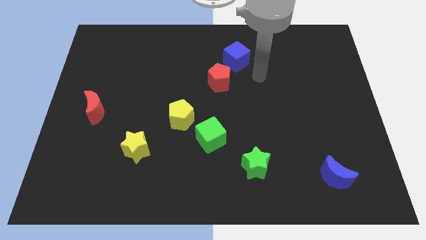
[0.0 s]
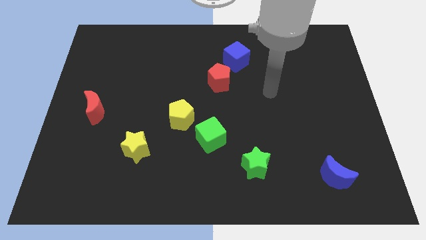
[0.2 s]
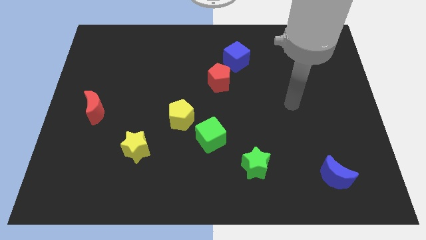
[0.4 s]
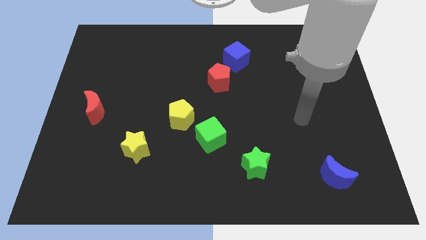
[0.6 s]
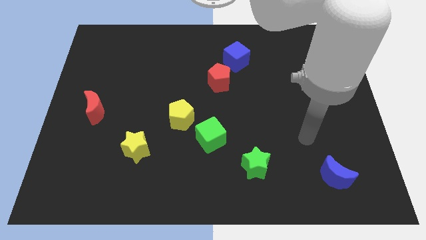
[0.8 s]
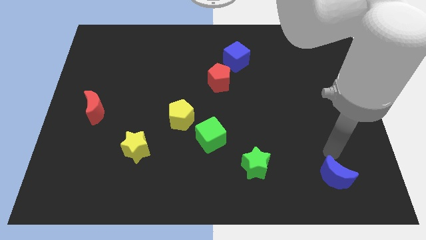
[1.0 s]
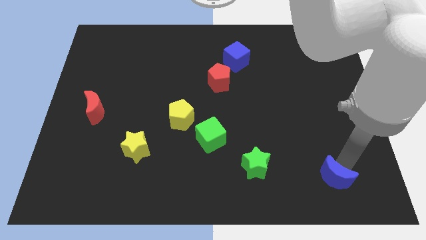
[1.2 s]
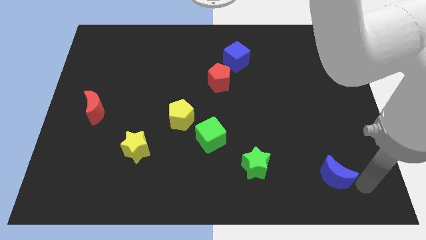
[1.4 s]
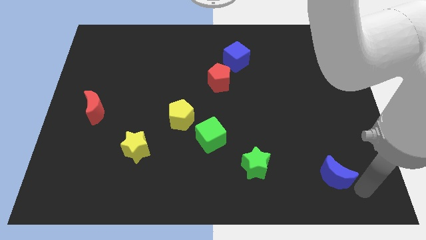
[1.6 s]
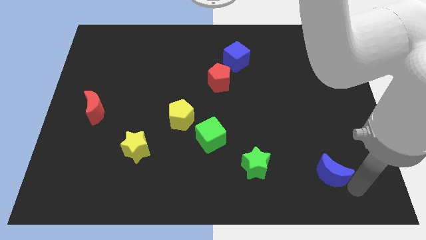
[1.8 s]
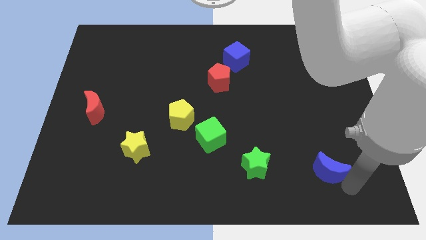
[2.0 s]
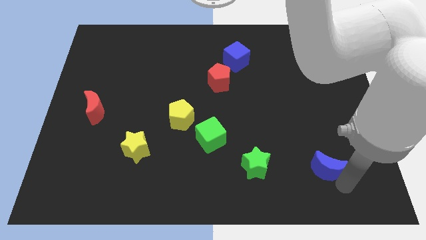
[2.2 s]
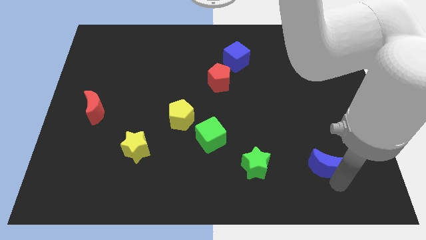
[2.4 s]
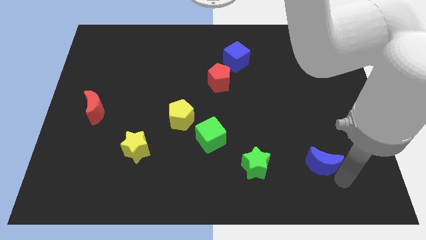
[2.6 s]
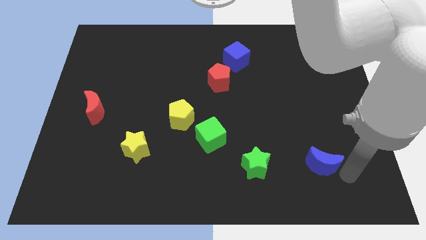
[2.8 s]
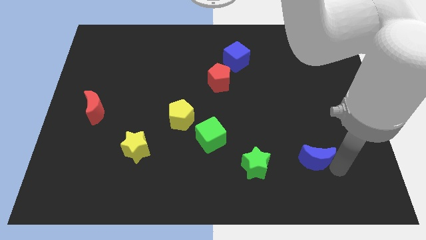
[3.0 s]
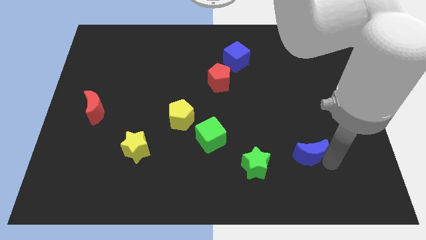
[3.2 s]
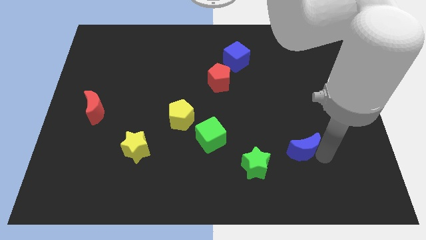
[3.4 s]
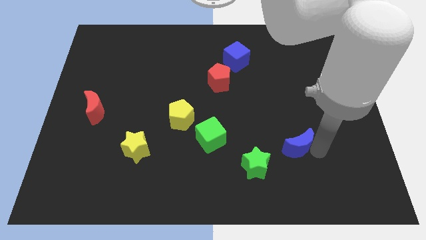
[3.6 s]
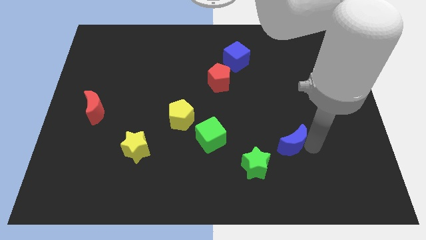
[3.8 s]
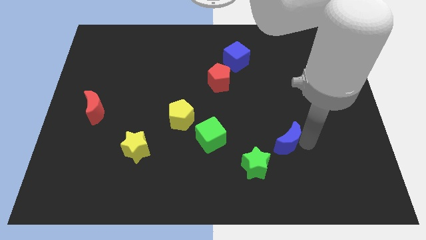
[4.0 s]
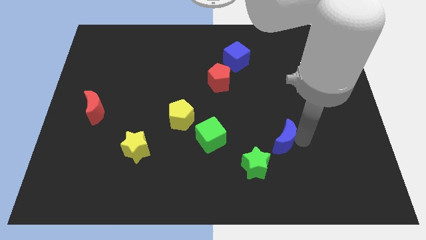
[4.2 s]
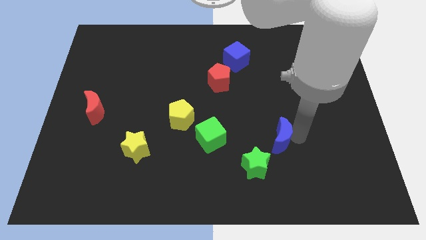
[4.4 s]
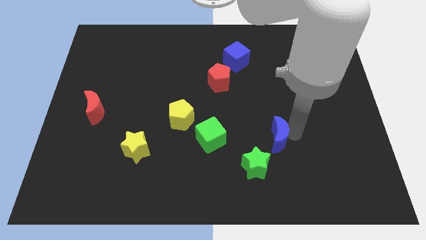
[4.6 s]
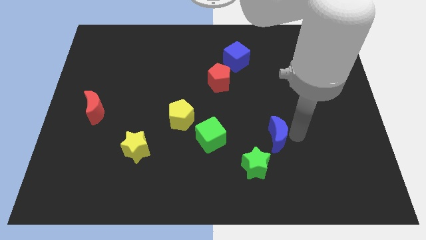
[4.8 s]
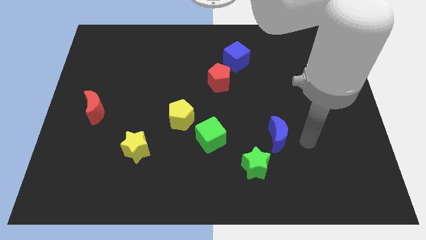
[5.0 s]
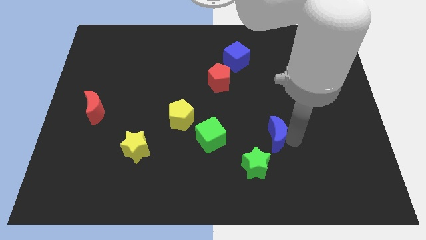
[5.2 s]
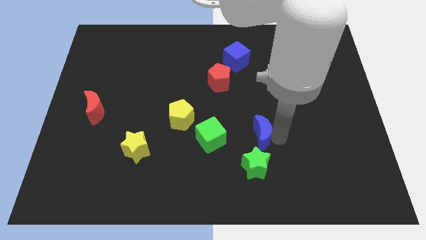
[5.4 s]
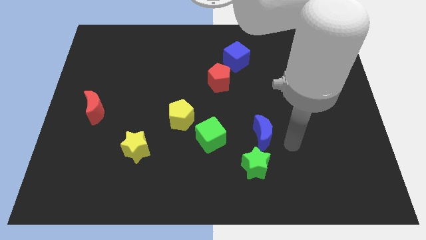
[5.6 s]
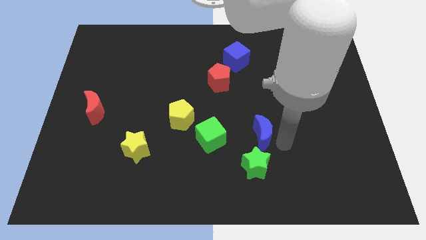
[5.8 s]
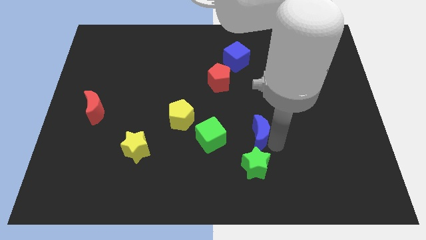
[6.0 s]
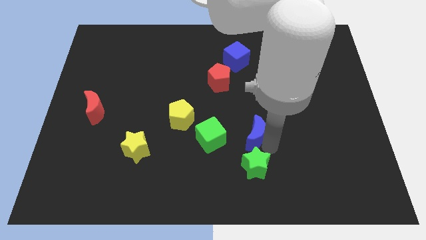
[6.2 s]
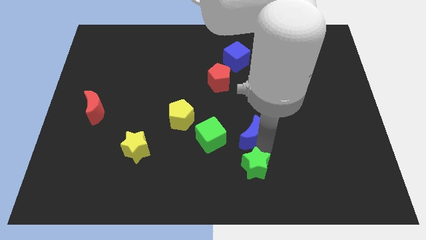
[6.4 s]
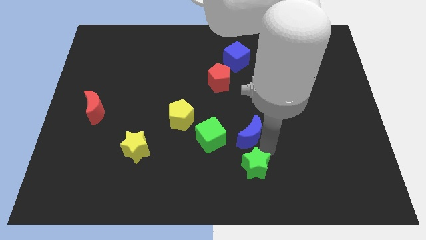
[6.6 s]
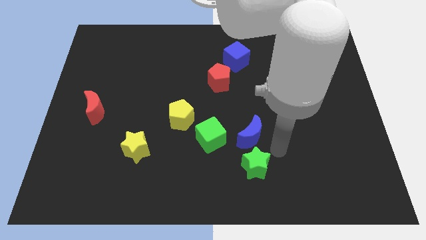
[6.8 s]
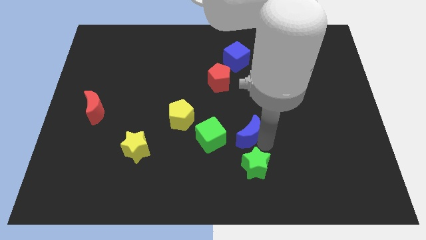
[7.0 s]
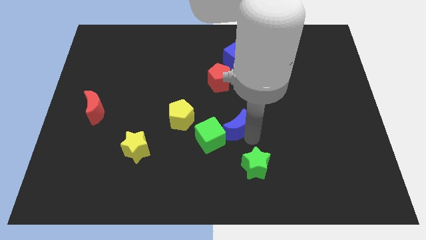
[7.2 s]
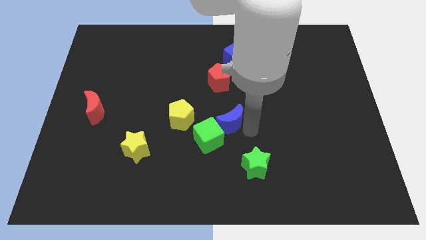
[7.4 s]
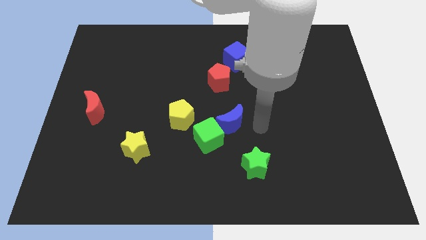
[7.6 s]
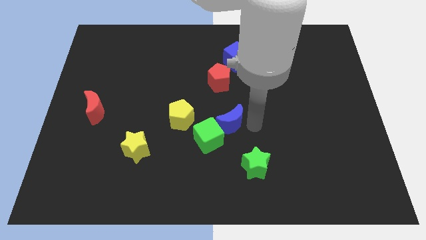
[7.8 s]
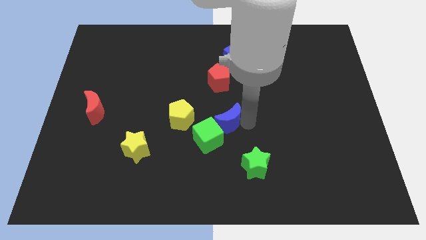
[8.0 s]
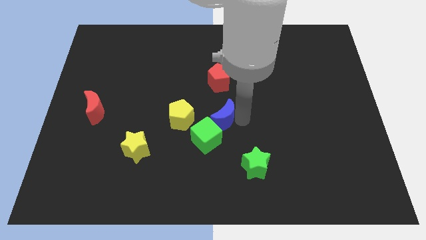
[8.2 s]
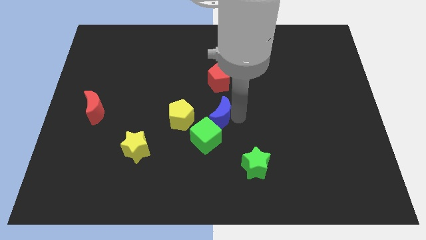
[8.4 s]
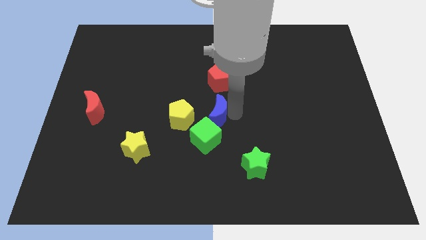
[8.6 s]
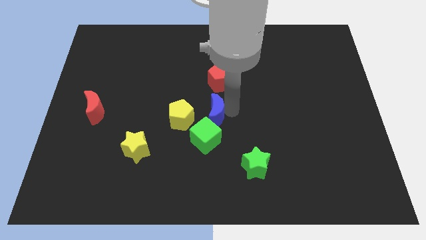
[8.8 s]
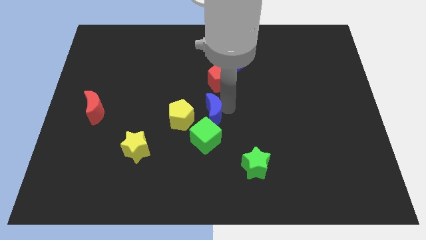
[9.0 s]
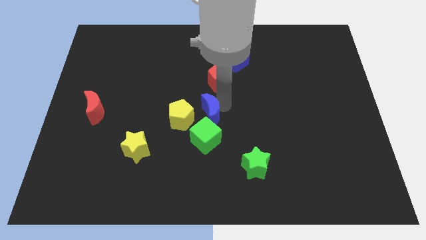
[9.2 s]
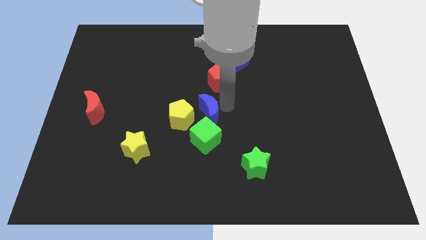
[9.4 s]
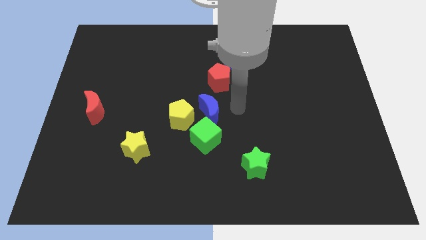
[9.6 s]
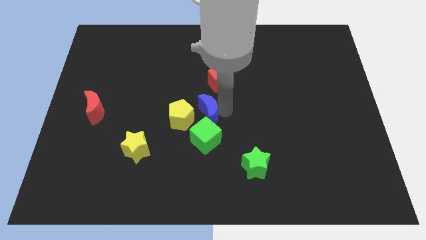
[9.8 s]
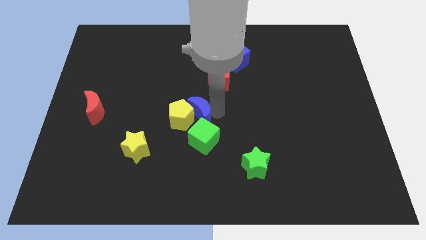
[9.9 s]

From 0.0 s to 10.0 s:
slide the blue moon close to the yellow pentagon

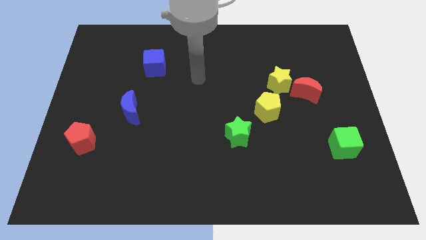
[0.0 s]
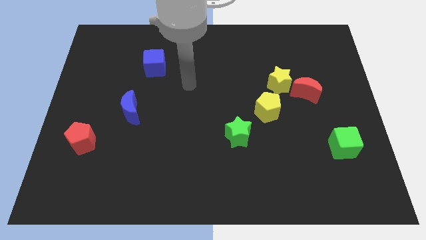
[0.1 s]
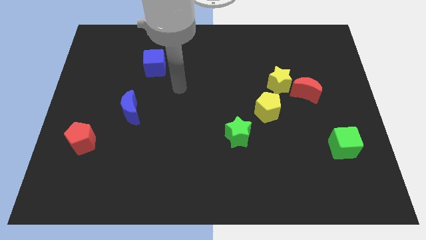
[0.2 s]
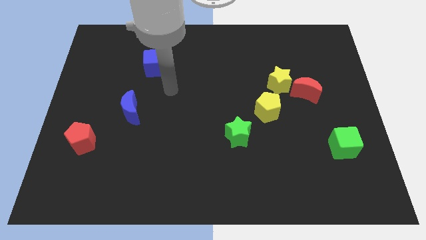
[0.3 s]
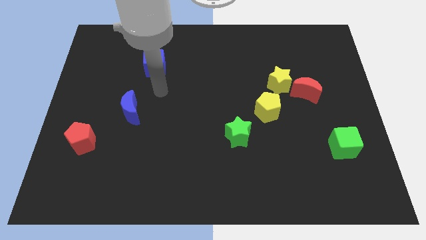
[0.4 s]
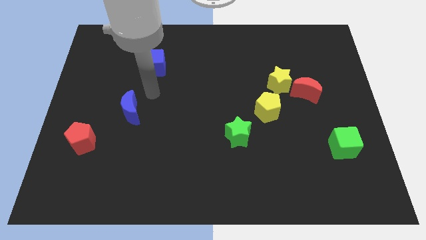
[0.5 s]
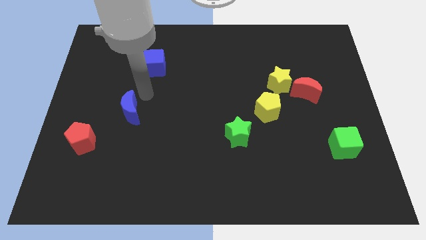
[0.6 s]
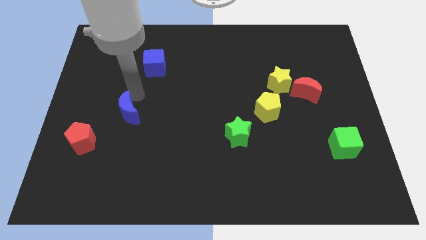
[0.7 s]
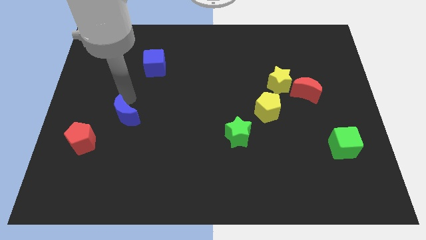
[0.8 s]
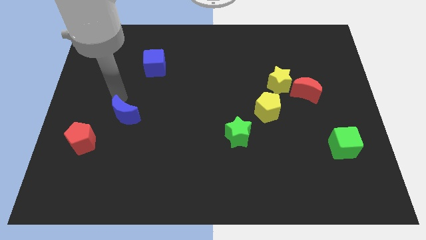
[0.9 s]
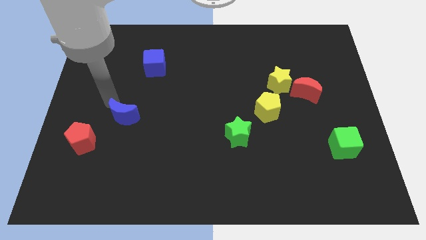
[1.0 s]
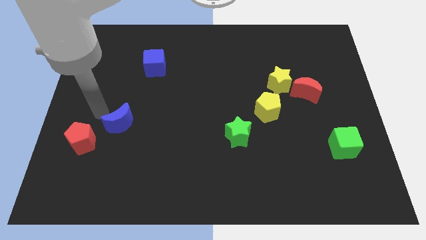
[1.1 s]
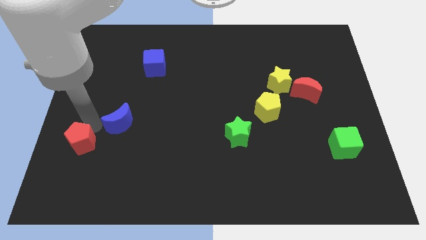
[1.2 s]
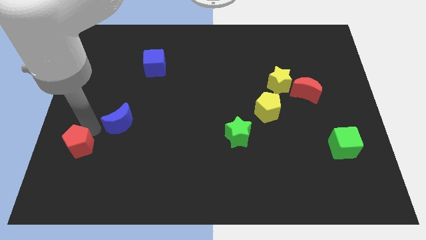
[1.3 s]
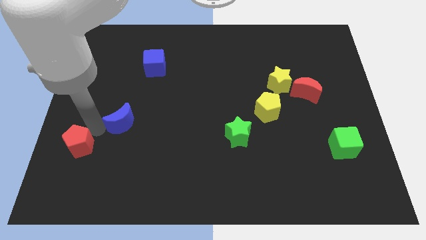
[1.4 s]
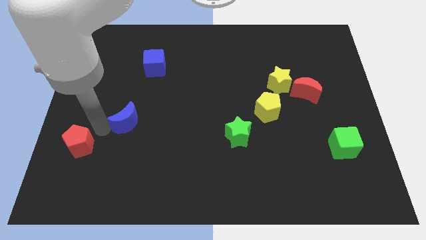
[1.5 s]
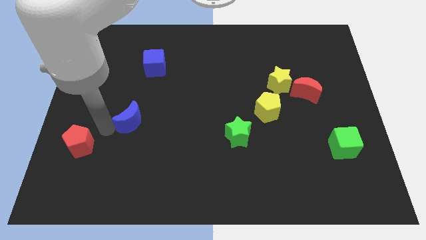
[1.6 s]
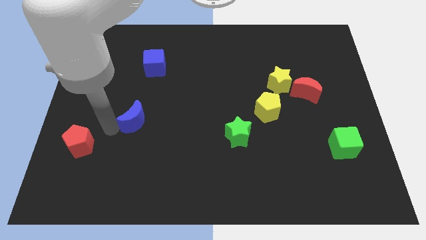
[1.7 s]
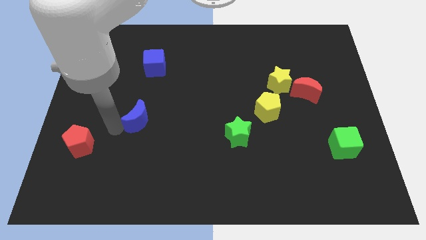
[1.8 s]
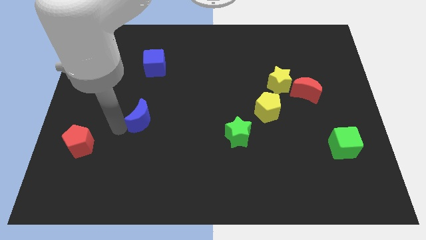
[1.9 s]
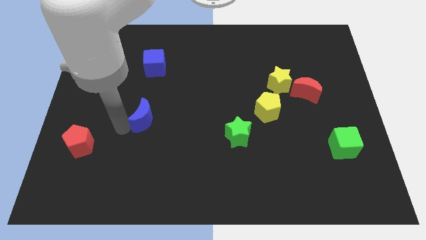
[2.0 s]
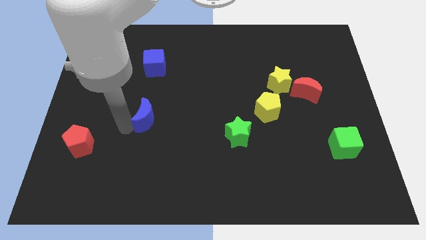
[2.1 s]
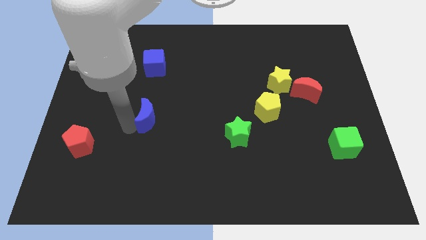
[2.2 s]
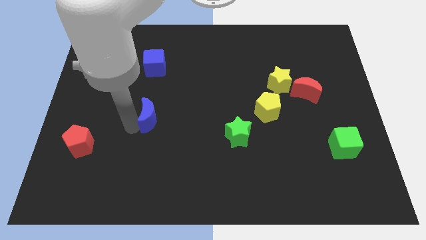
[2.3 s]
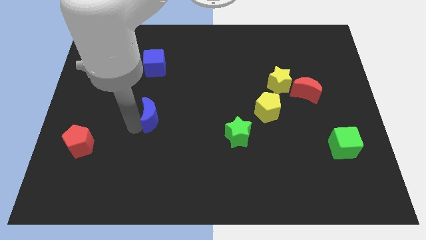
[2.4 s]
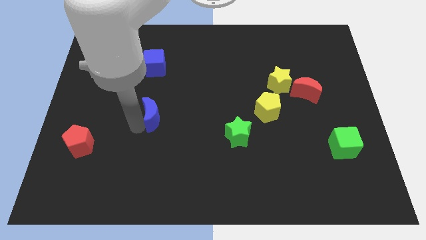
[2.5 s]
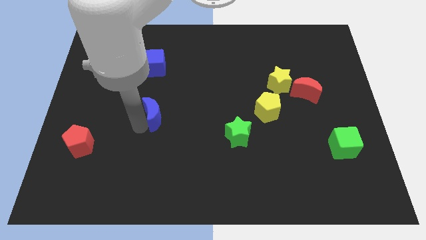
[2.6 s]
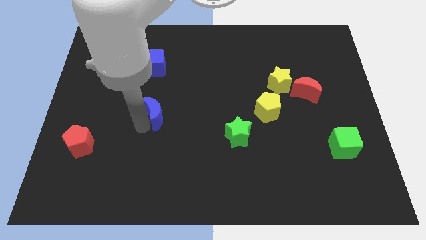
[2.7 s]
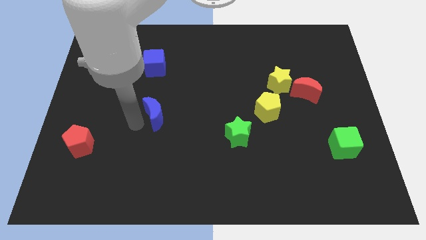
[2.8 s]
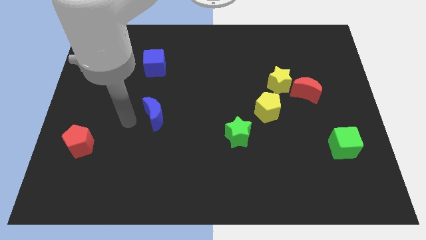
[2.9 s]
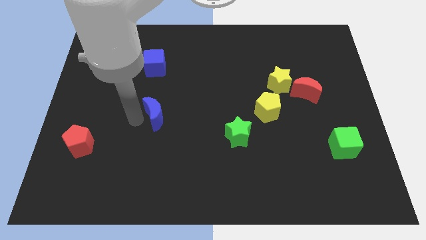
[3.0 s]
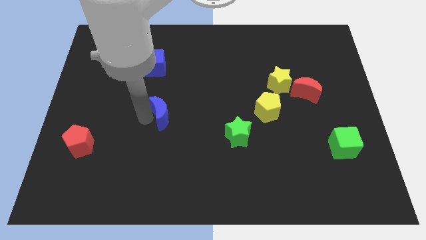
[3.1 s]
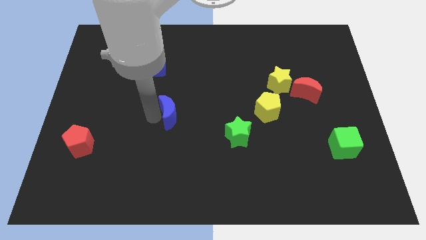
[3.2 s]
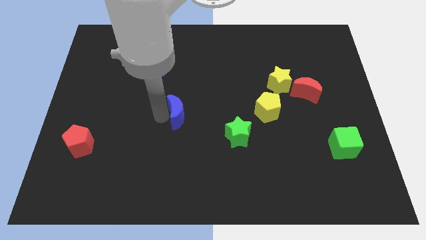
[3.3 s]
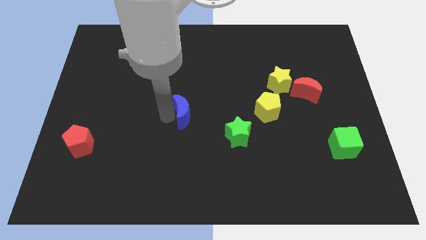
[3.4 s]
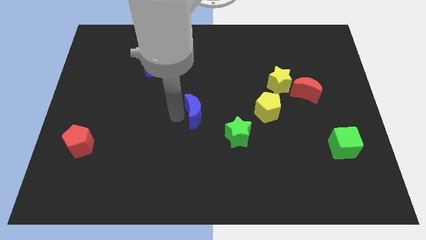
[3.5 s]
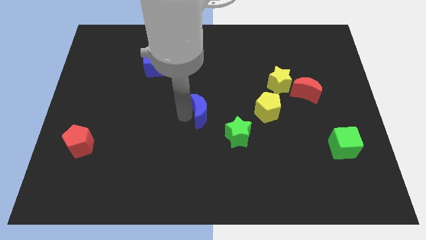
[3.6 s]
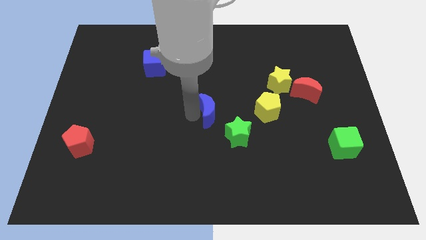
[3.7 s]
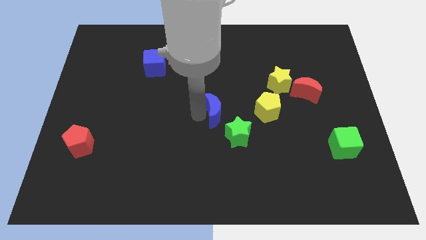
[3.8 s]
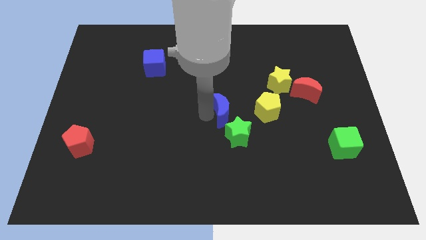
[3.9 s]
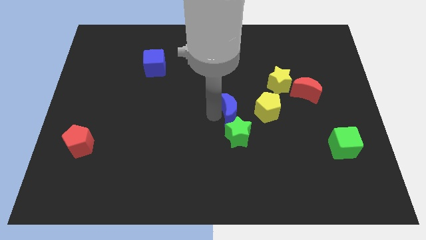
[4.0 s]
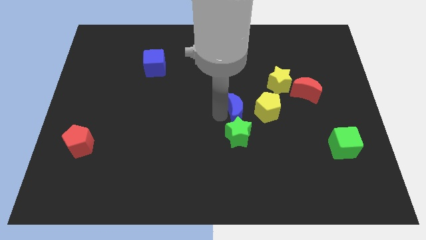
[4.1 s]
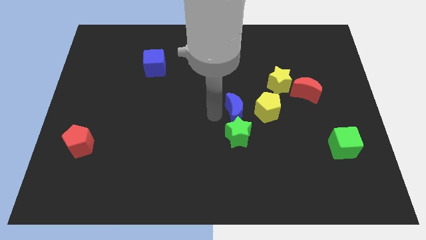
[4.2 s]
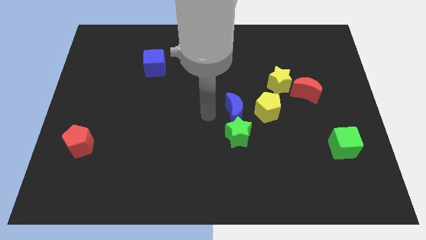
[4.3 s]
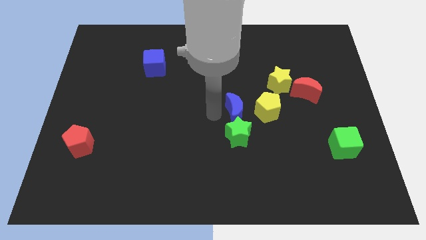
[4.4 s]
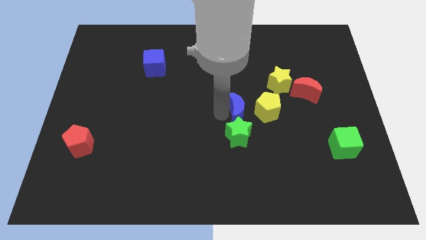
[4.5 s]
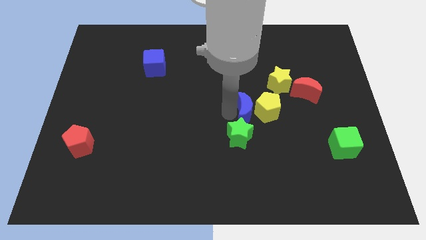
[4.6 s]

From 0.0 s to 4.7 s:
put the blue moon towards the yellow pentagon
